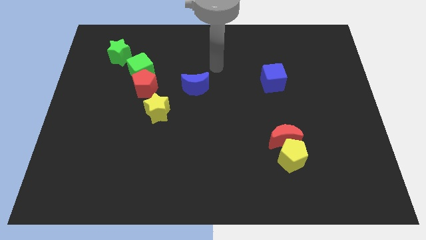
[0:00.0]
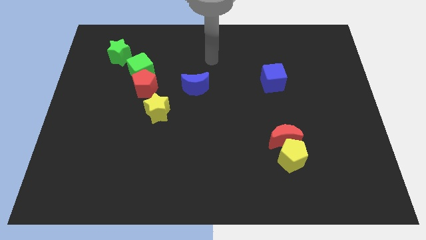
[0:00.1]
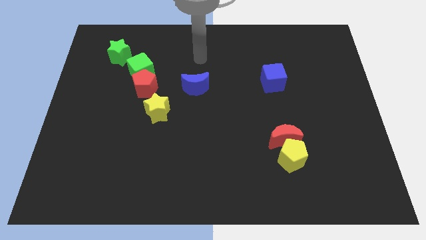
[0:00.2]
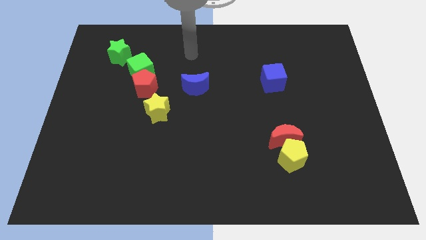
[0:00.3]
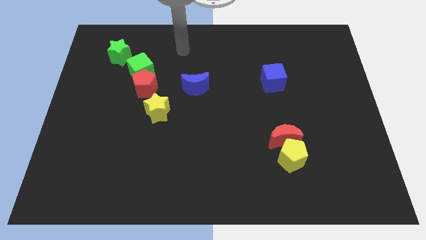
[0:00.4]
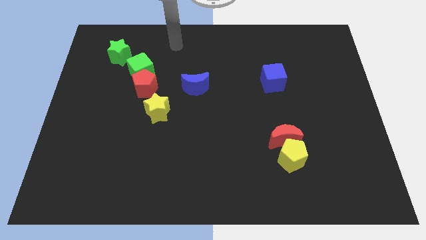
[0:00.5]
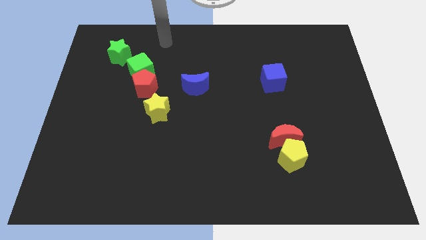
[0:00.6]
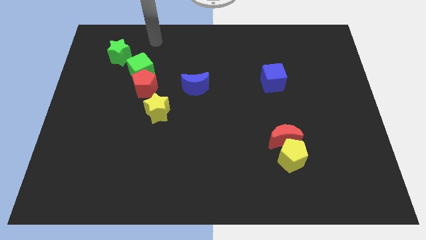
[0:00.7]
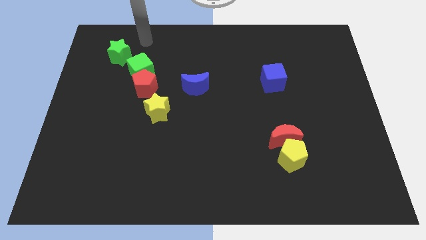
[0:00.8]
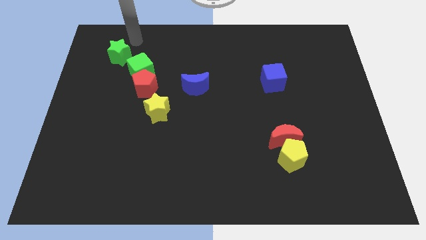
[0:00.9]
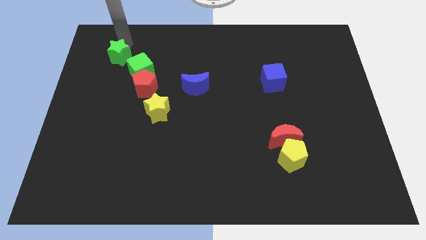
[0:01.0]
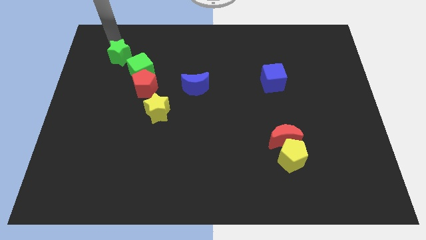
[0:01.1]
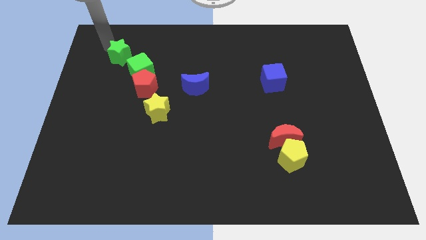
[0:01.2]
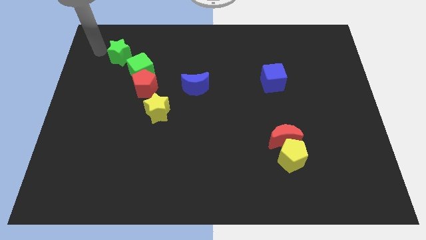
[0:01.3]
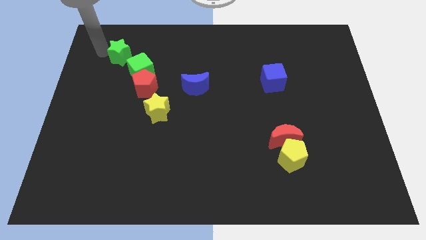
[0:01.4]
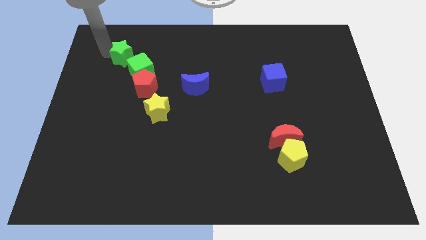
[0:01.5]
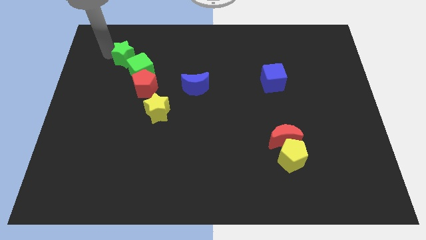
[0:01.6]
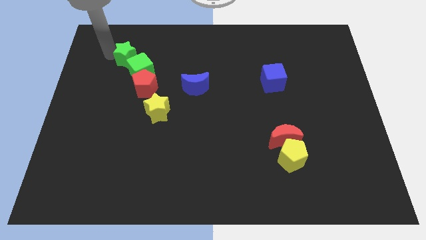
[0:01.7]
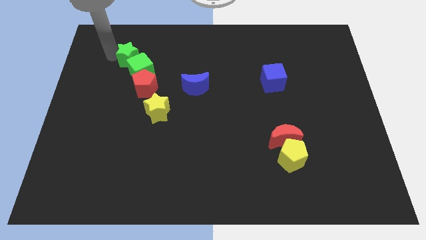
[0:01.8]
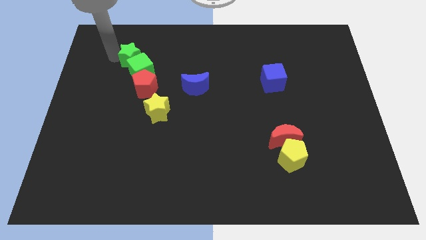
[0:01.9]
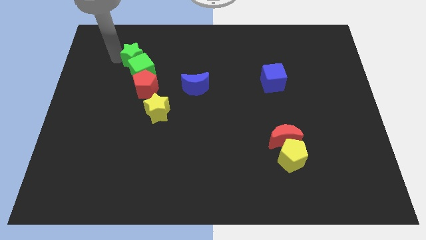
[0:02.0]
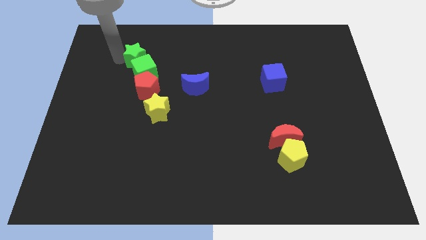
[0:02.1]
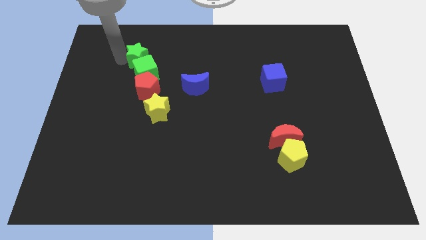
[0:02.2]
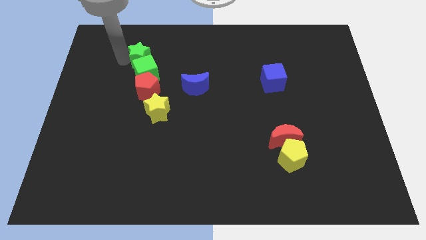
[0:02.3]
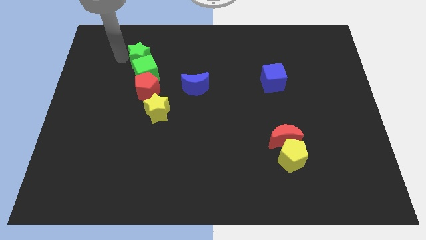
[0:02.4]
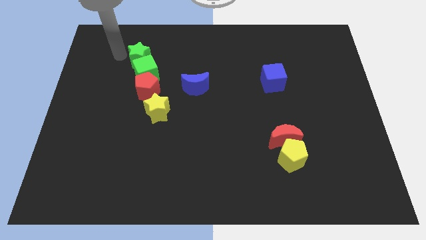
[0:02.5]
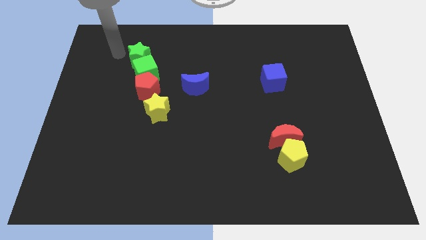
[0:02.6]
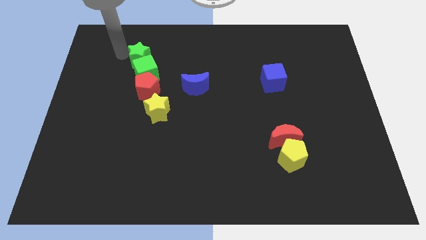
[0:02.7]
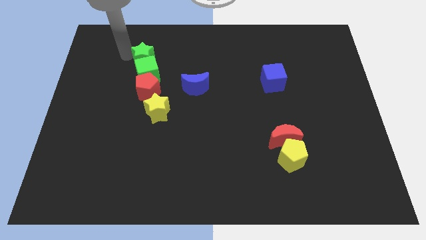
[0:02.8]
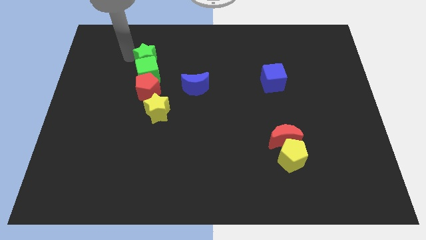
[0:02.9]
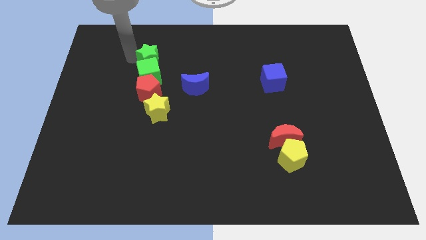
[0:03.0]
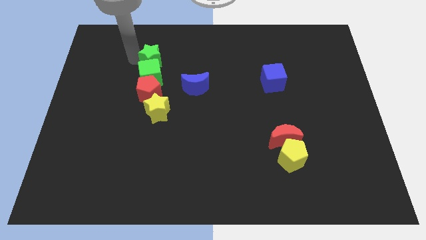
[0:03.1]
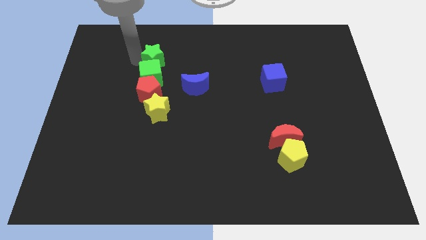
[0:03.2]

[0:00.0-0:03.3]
slightly move the green star down and right diagonally

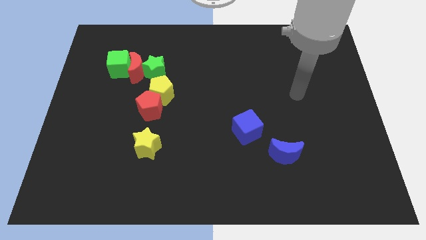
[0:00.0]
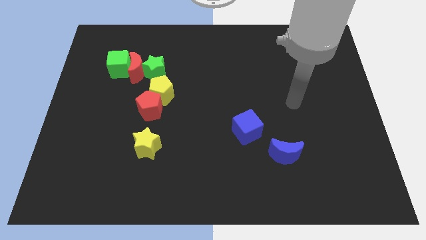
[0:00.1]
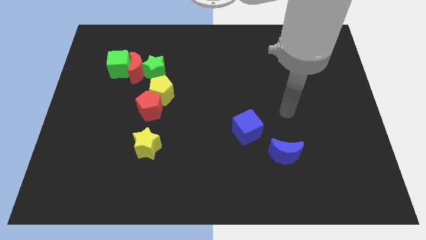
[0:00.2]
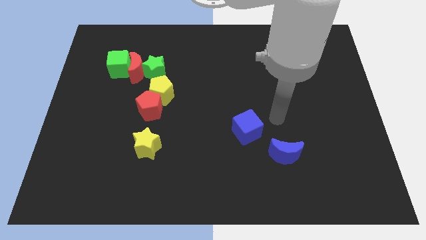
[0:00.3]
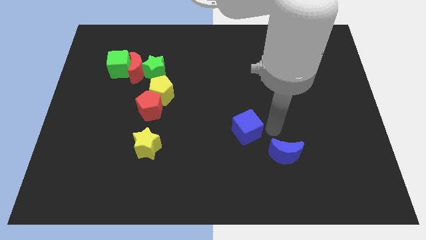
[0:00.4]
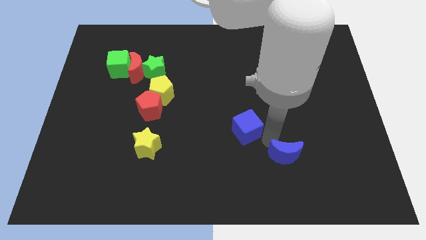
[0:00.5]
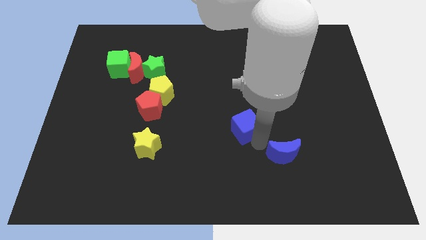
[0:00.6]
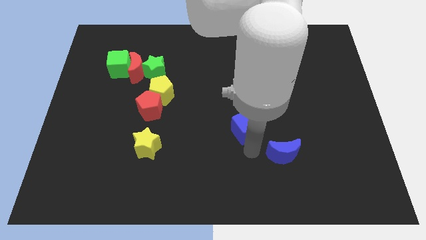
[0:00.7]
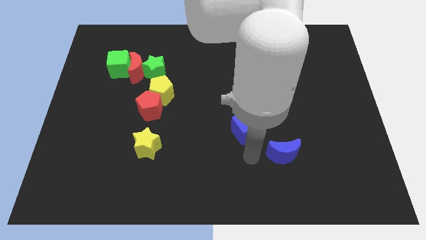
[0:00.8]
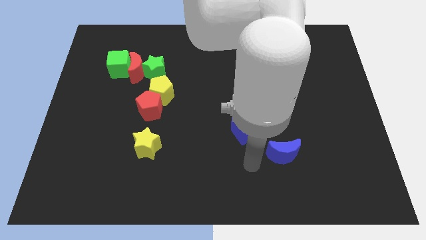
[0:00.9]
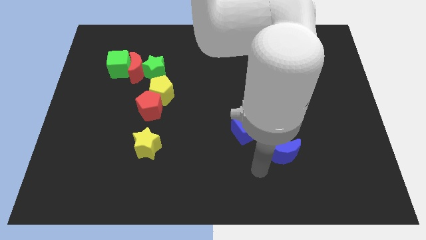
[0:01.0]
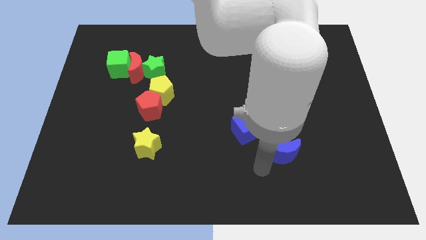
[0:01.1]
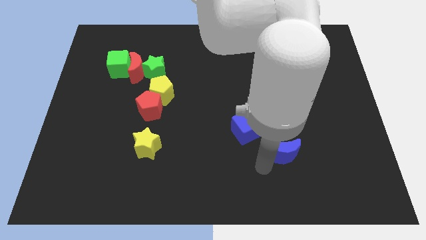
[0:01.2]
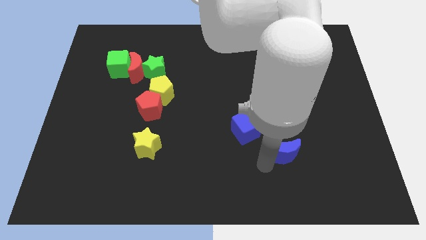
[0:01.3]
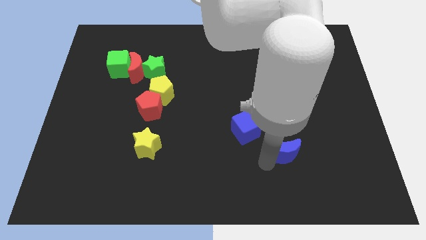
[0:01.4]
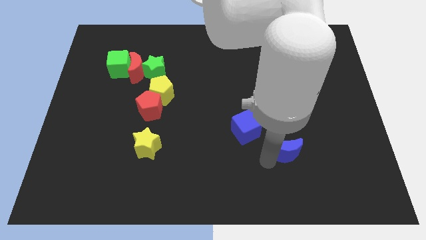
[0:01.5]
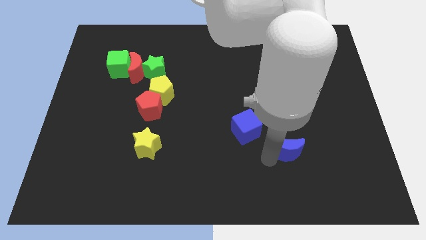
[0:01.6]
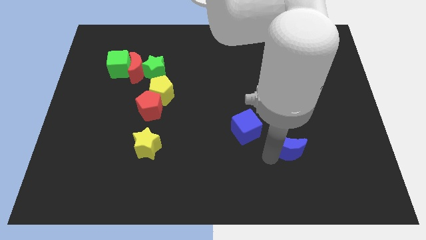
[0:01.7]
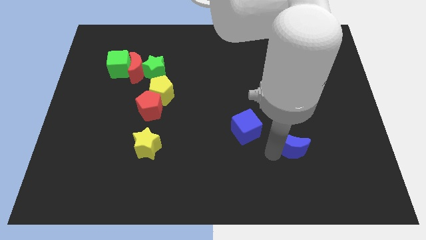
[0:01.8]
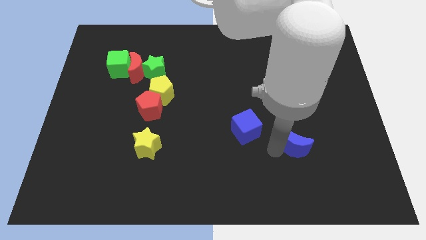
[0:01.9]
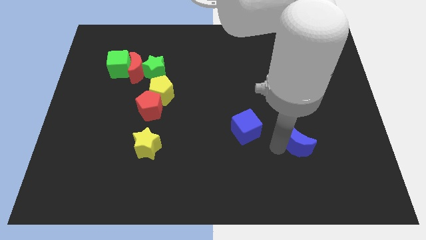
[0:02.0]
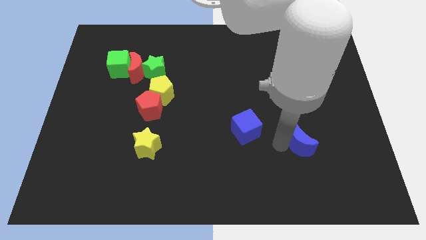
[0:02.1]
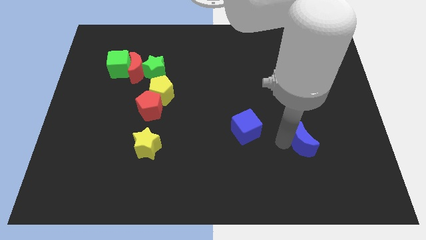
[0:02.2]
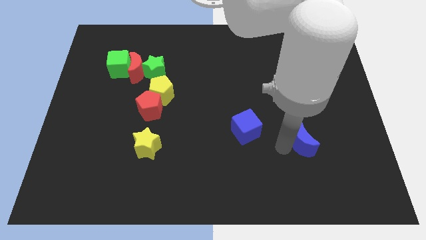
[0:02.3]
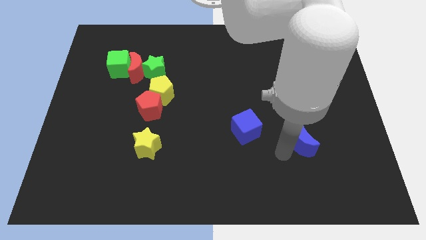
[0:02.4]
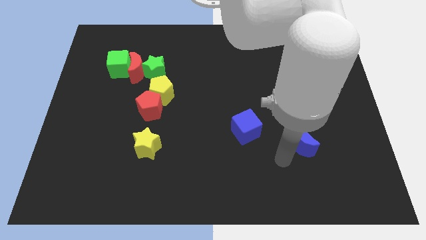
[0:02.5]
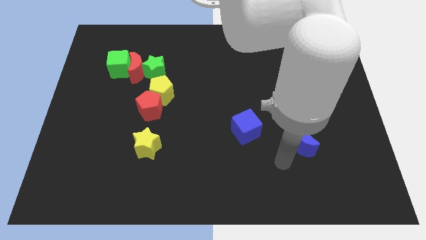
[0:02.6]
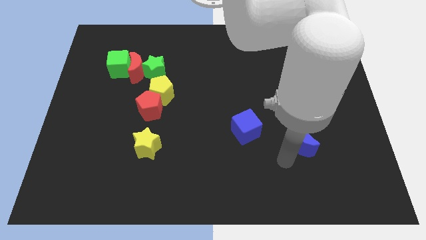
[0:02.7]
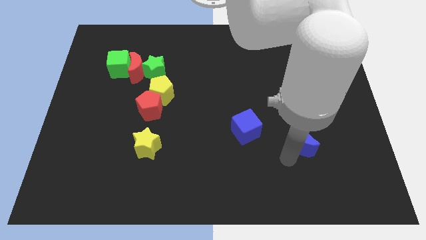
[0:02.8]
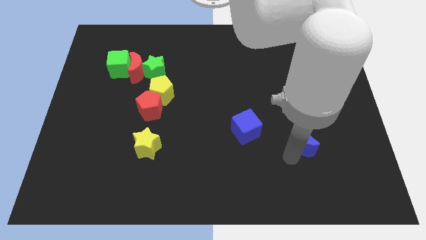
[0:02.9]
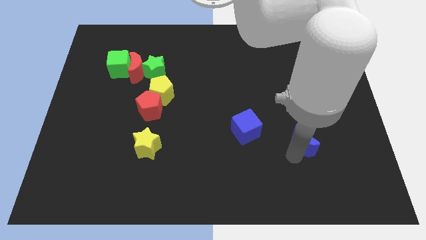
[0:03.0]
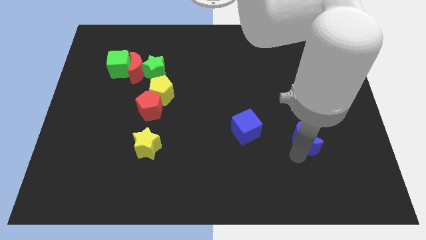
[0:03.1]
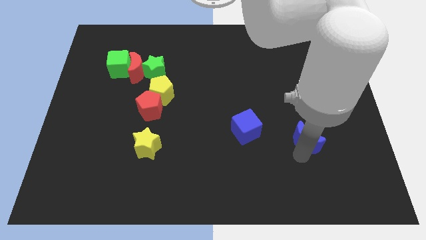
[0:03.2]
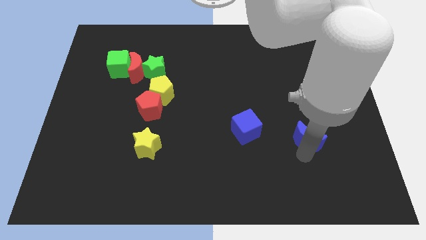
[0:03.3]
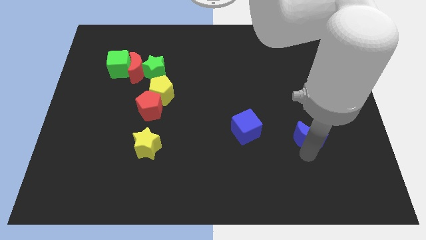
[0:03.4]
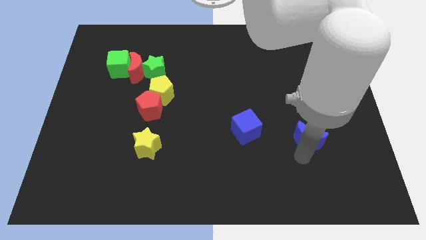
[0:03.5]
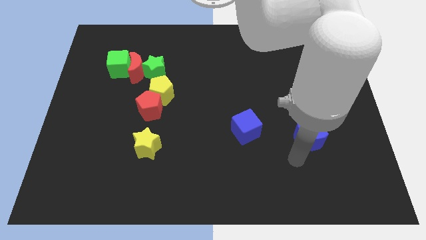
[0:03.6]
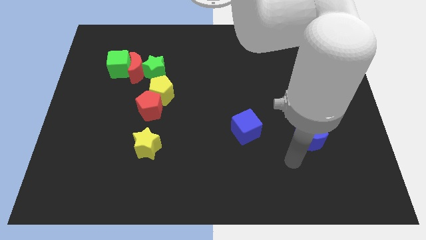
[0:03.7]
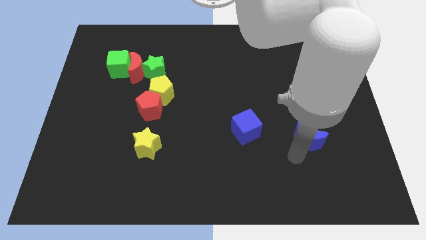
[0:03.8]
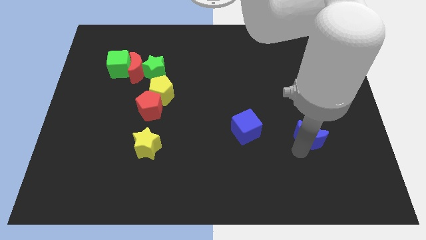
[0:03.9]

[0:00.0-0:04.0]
slightly push the blue moon diagonally up and right

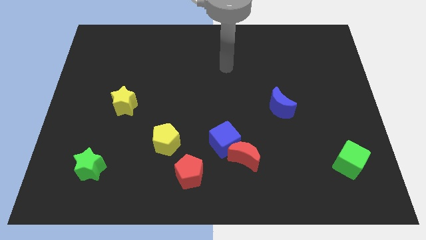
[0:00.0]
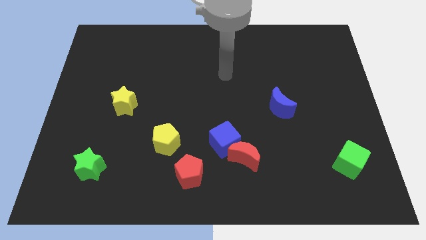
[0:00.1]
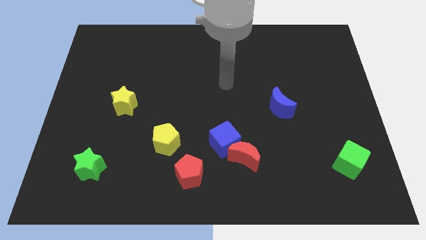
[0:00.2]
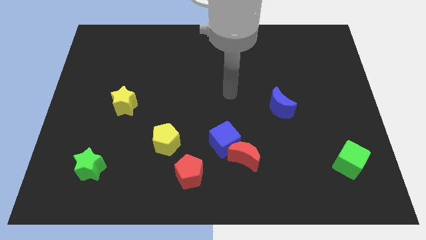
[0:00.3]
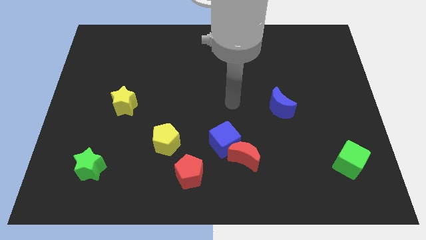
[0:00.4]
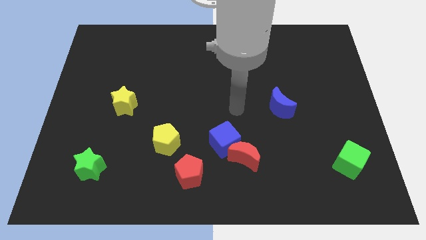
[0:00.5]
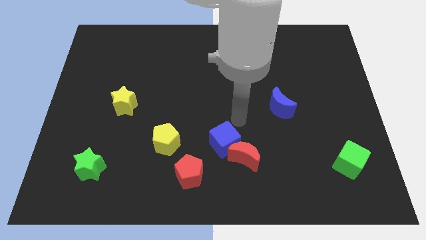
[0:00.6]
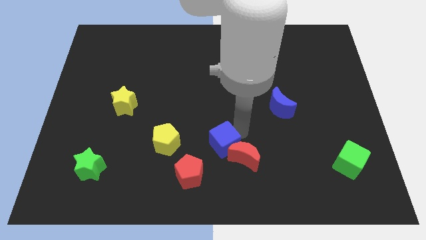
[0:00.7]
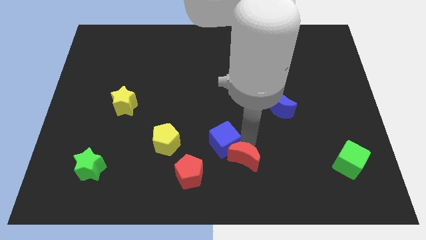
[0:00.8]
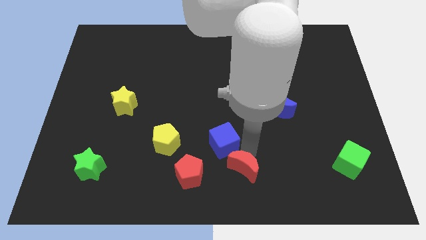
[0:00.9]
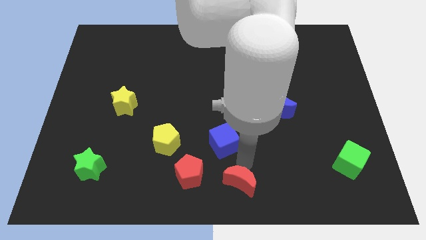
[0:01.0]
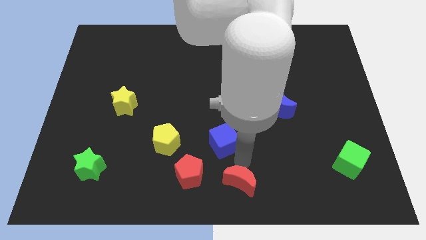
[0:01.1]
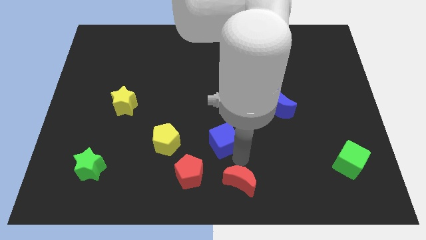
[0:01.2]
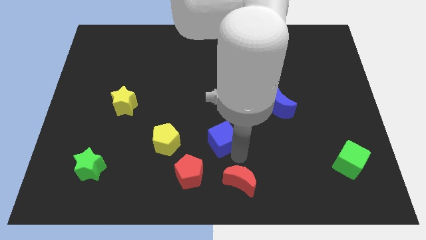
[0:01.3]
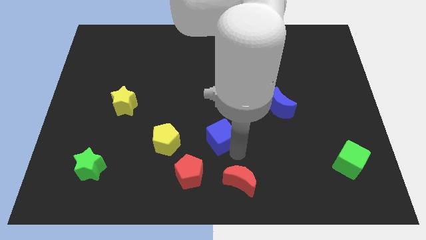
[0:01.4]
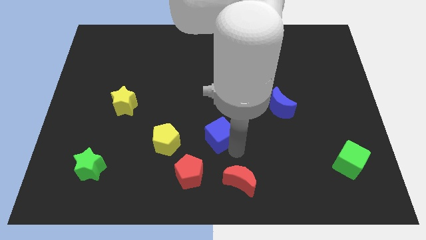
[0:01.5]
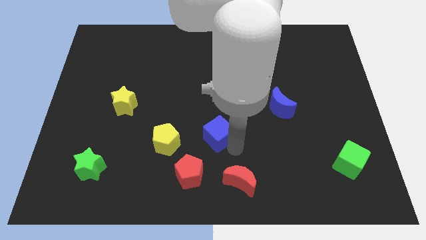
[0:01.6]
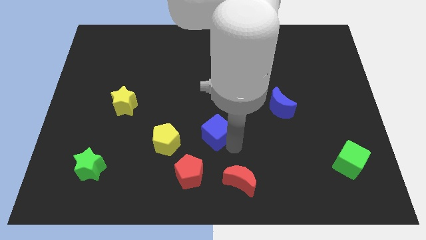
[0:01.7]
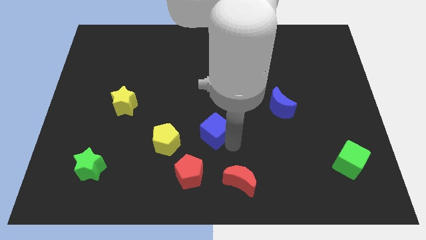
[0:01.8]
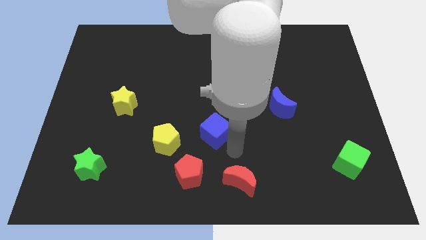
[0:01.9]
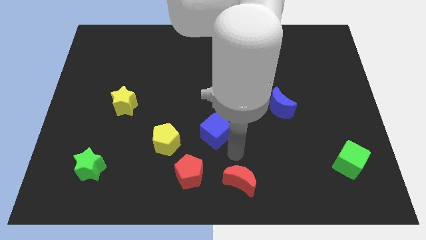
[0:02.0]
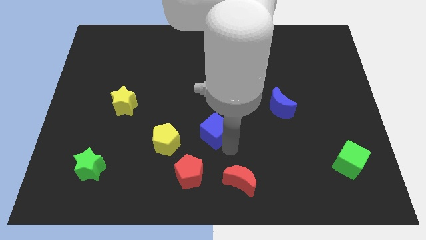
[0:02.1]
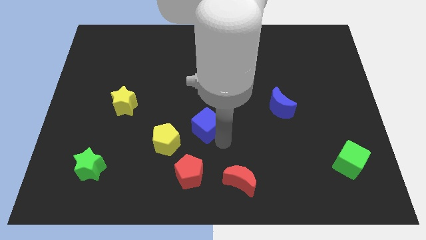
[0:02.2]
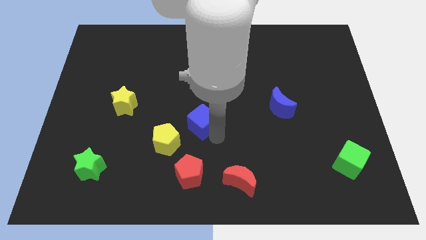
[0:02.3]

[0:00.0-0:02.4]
slide the blue cube somewhat up and to the left diagonally
